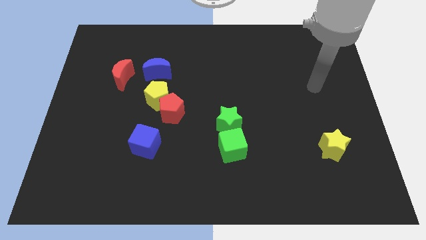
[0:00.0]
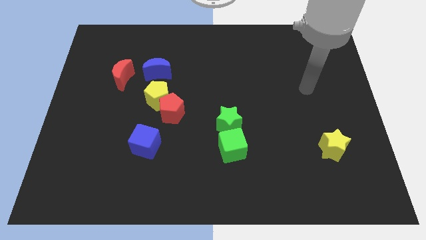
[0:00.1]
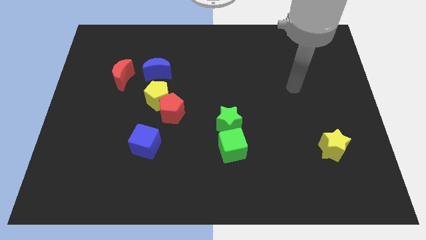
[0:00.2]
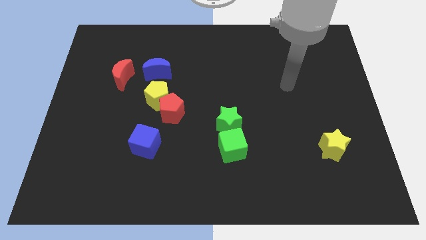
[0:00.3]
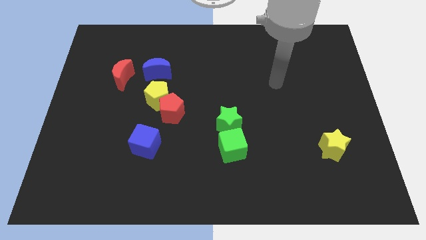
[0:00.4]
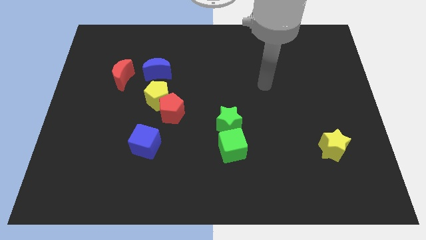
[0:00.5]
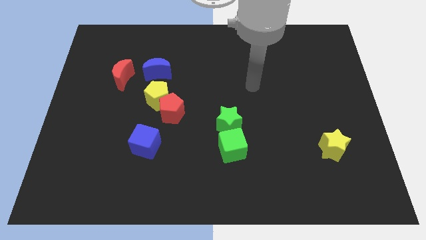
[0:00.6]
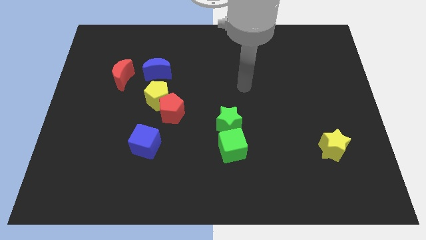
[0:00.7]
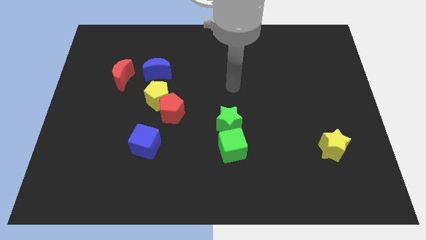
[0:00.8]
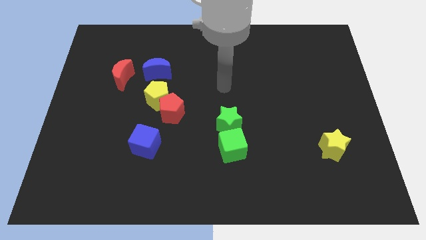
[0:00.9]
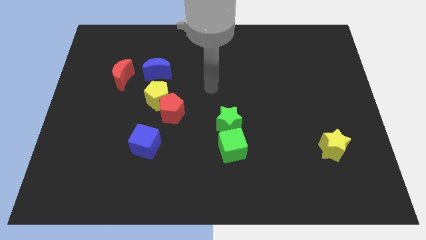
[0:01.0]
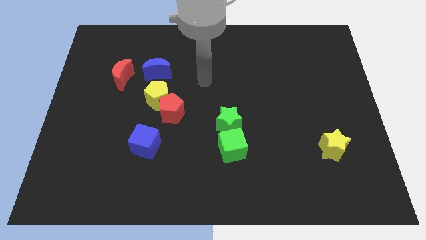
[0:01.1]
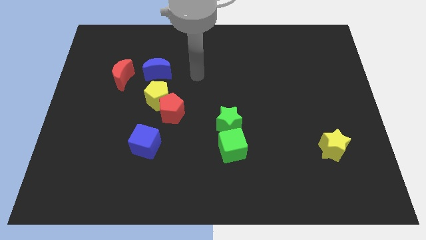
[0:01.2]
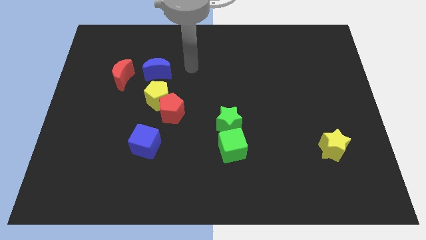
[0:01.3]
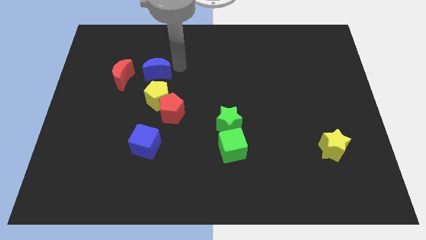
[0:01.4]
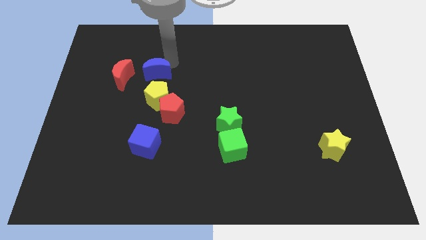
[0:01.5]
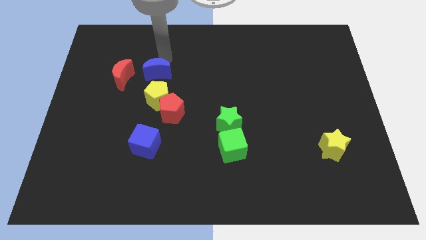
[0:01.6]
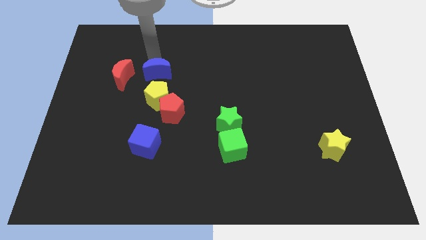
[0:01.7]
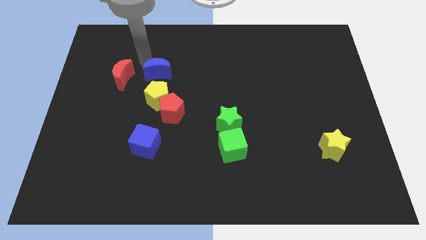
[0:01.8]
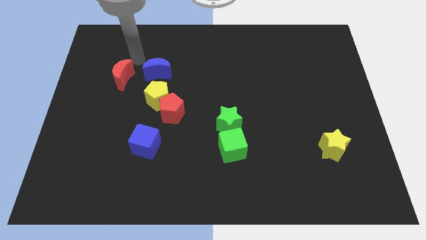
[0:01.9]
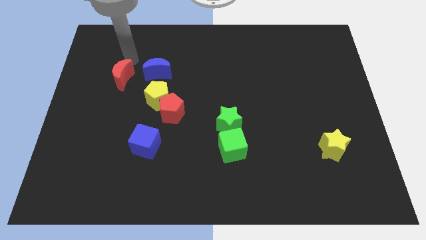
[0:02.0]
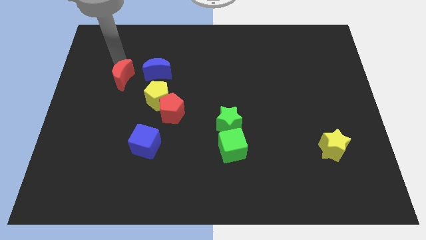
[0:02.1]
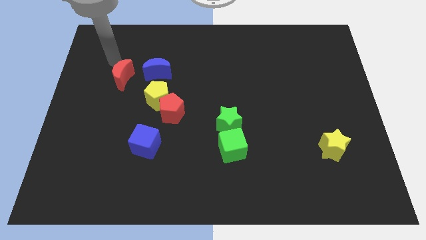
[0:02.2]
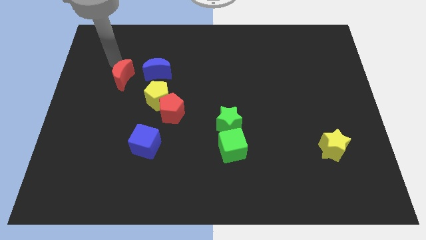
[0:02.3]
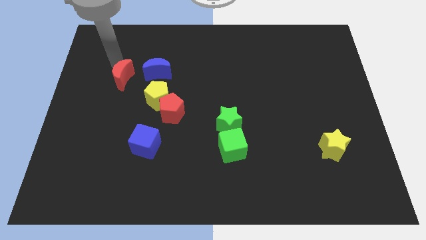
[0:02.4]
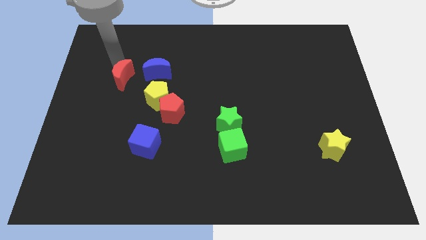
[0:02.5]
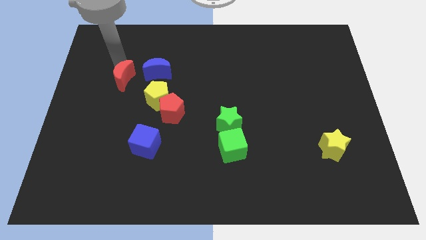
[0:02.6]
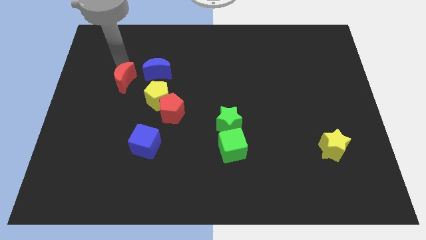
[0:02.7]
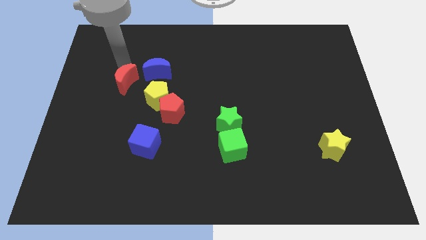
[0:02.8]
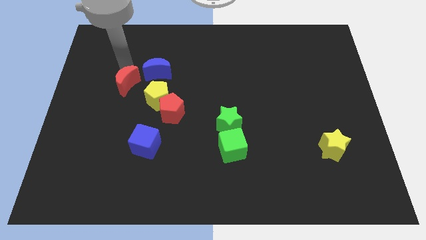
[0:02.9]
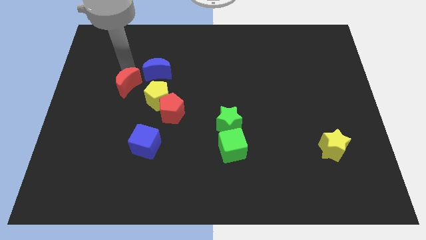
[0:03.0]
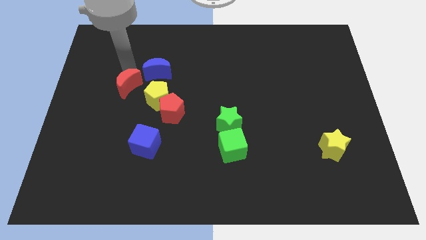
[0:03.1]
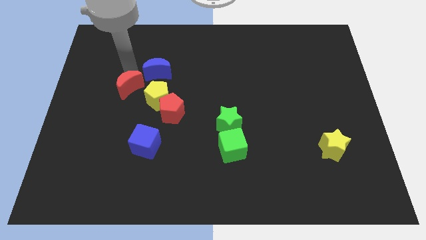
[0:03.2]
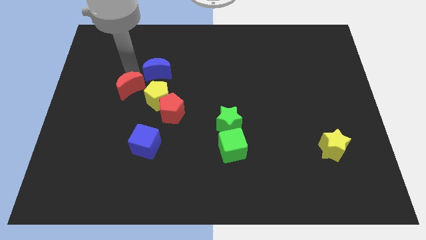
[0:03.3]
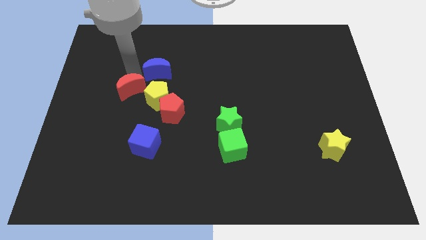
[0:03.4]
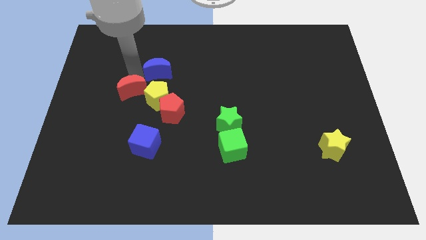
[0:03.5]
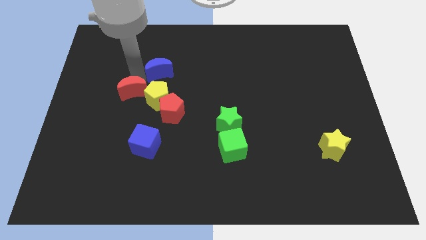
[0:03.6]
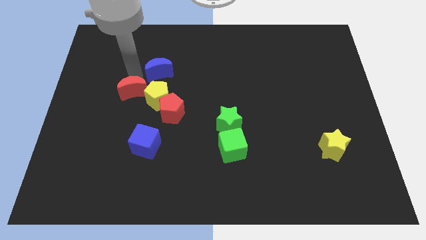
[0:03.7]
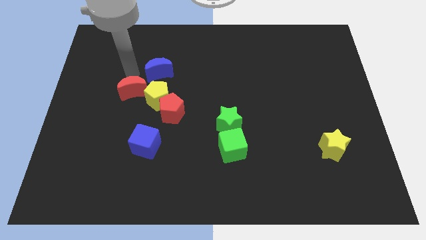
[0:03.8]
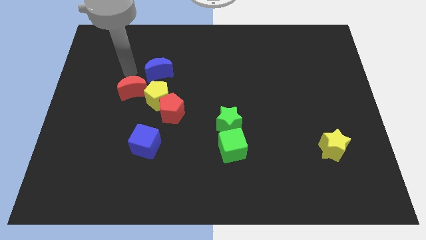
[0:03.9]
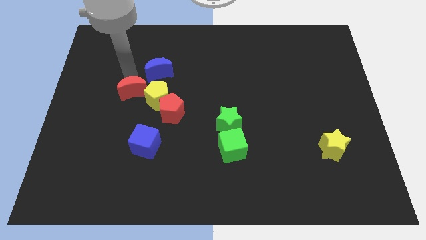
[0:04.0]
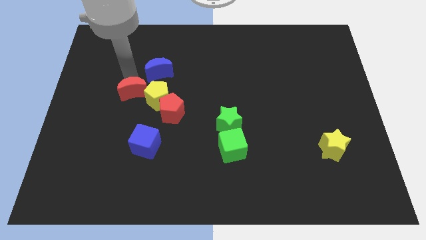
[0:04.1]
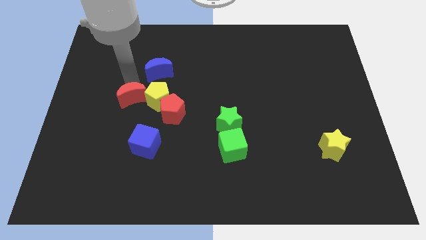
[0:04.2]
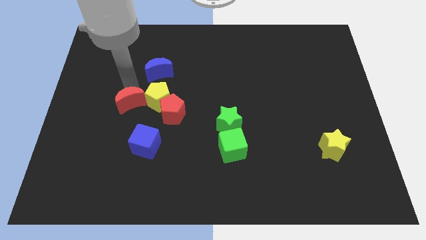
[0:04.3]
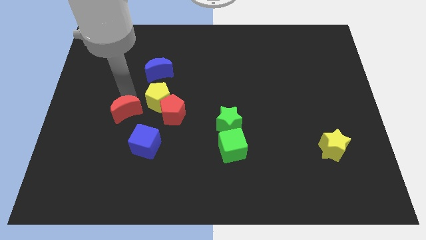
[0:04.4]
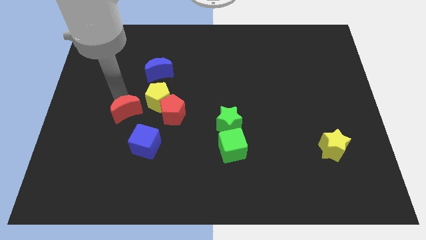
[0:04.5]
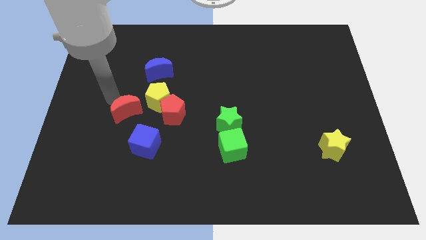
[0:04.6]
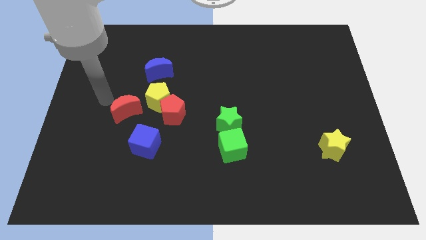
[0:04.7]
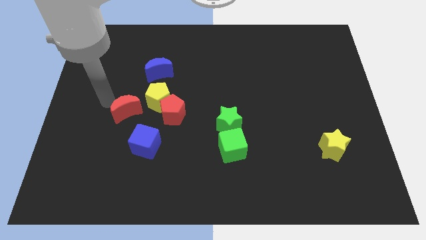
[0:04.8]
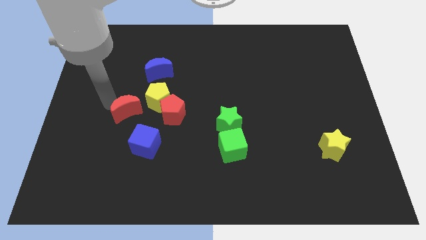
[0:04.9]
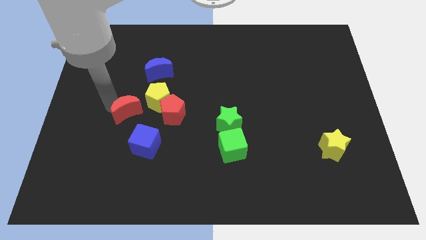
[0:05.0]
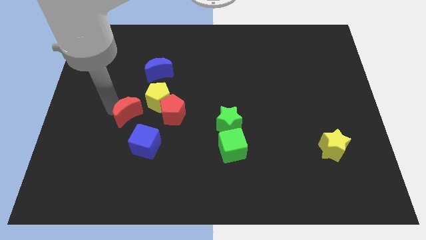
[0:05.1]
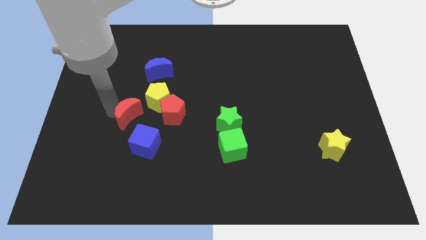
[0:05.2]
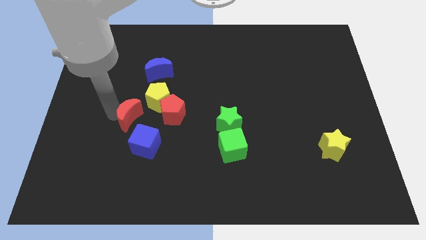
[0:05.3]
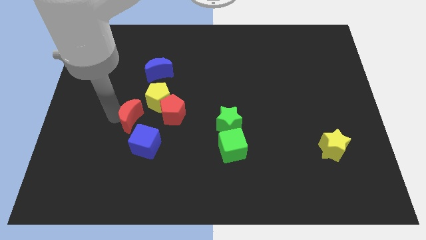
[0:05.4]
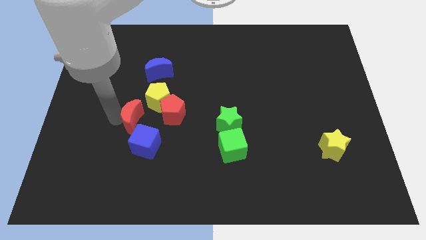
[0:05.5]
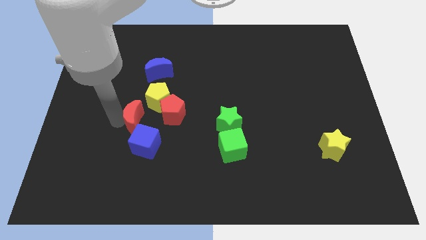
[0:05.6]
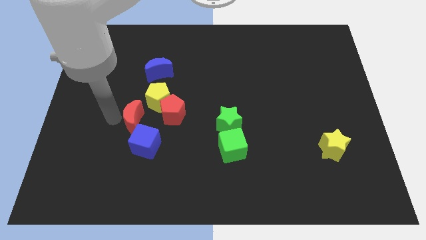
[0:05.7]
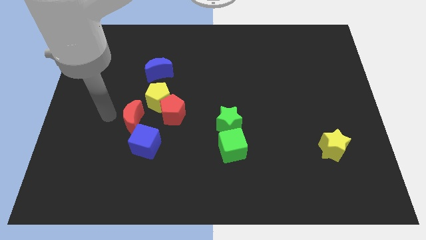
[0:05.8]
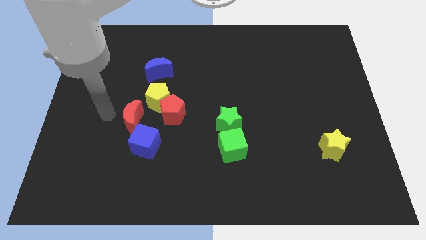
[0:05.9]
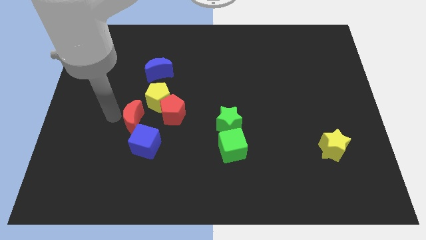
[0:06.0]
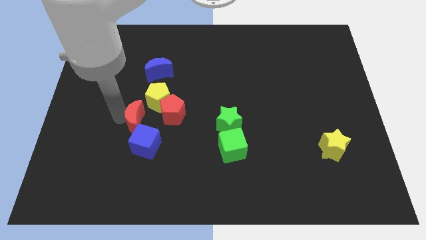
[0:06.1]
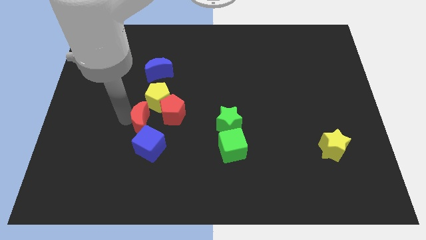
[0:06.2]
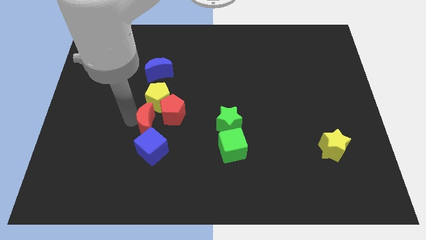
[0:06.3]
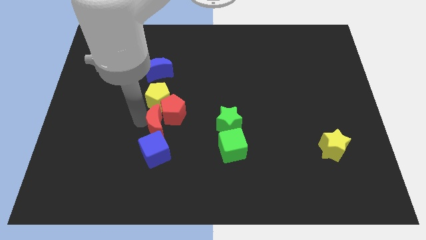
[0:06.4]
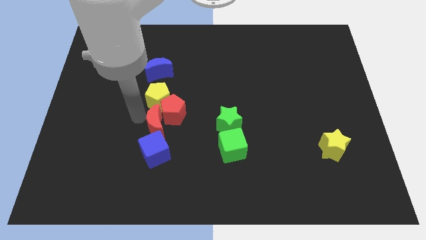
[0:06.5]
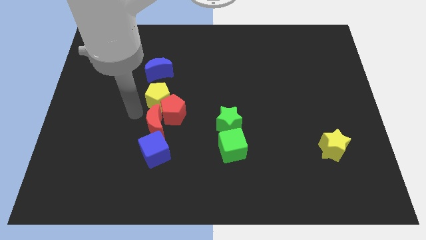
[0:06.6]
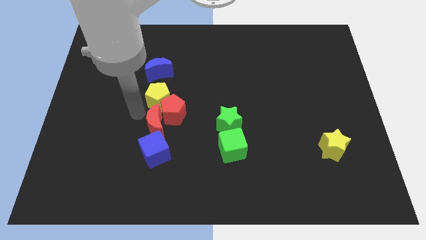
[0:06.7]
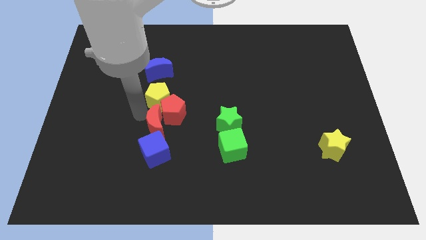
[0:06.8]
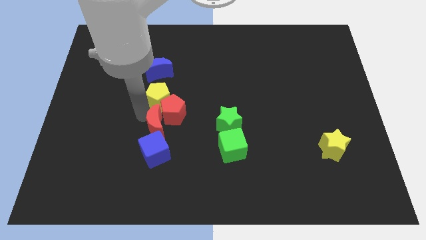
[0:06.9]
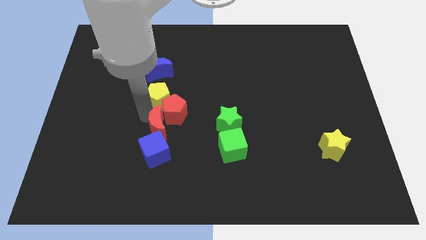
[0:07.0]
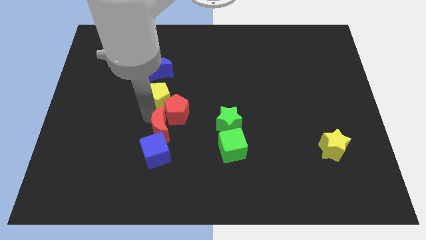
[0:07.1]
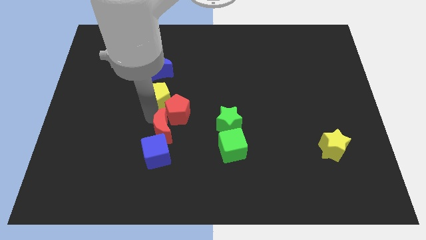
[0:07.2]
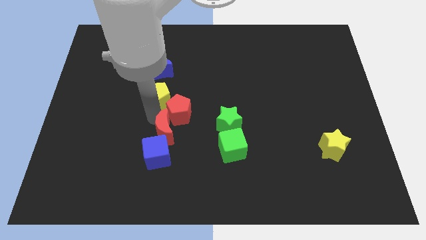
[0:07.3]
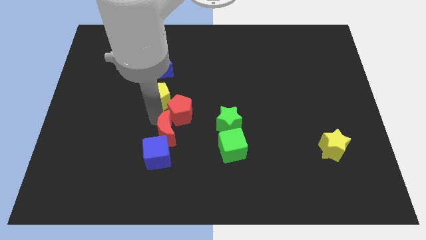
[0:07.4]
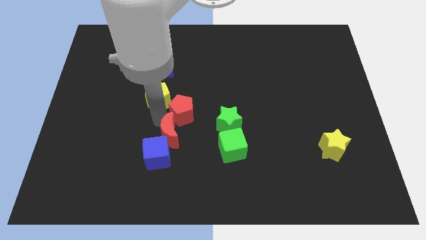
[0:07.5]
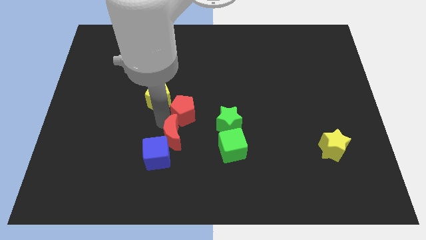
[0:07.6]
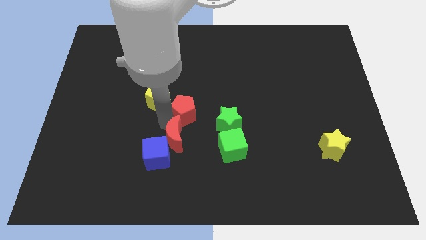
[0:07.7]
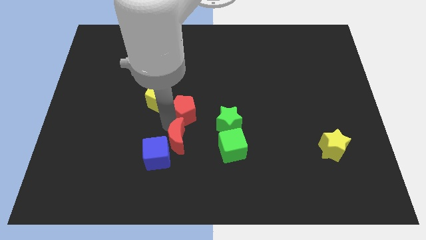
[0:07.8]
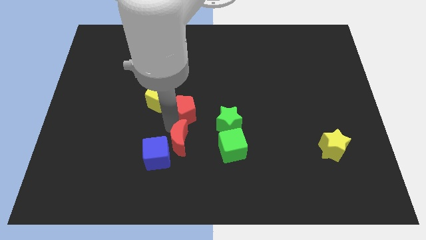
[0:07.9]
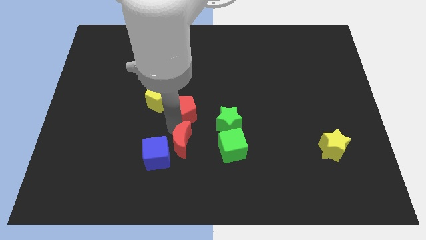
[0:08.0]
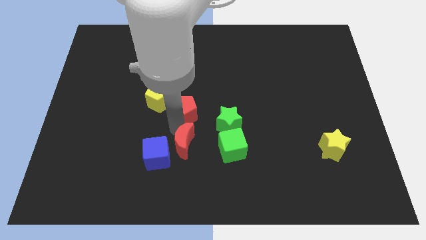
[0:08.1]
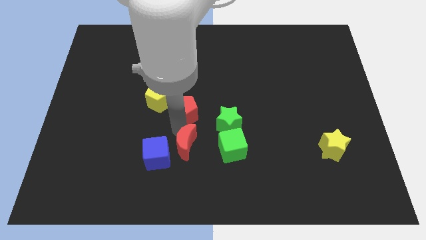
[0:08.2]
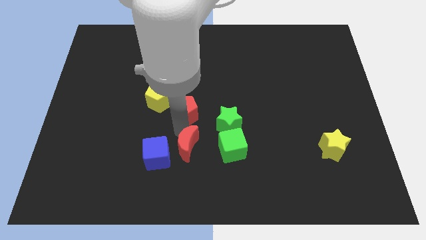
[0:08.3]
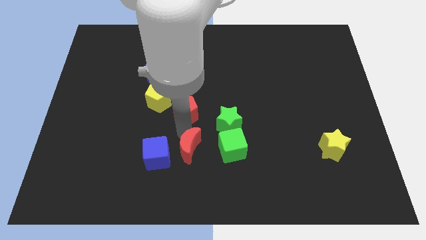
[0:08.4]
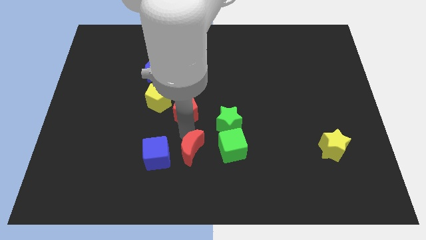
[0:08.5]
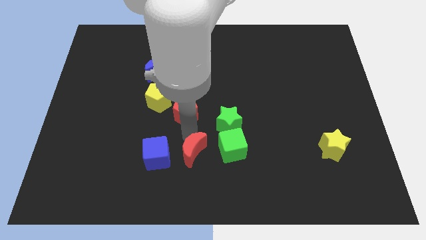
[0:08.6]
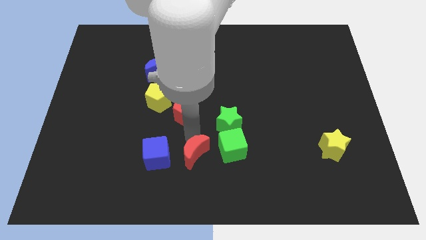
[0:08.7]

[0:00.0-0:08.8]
put the red moon diagonally down and to the left of the green cube
